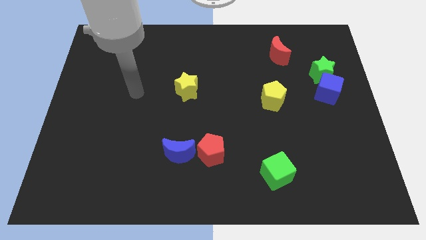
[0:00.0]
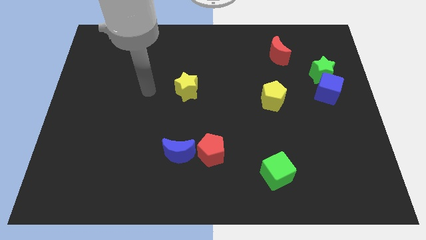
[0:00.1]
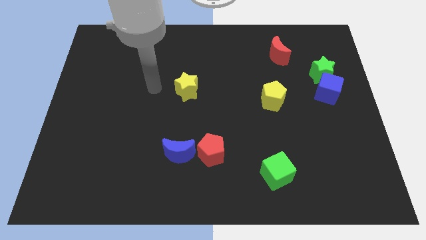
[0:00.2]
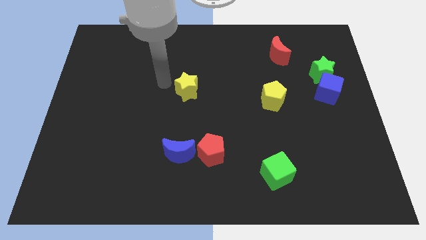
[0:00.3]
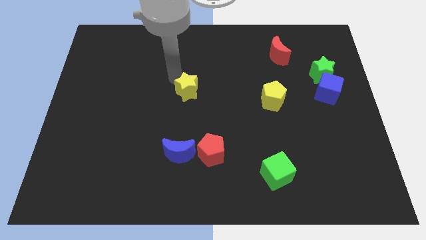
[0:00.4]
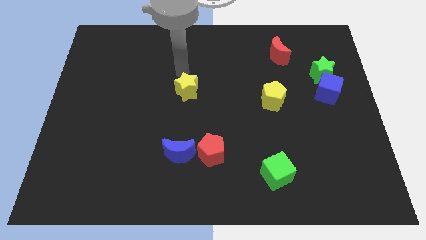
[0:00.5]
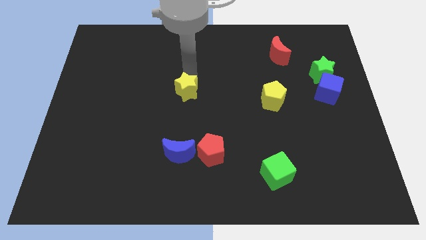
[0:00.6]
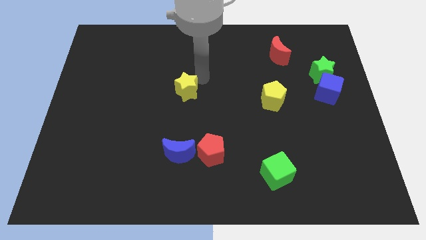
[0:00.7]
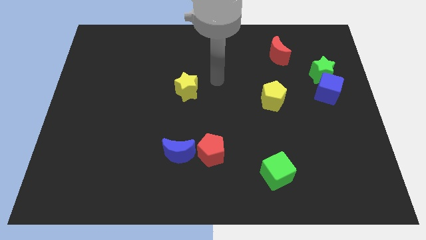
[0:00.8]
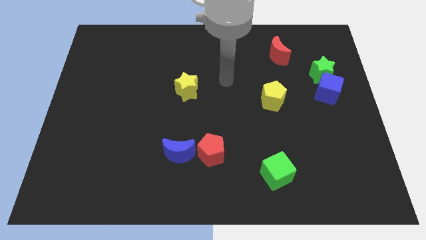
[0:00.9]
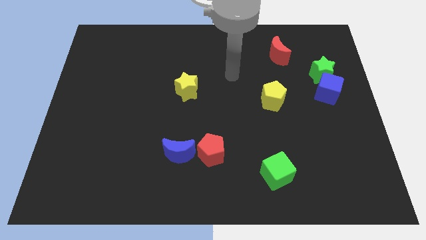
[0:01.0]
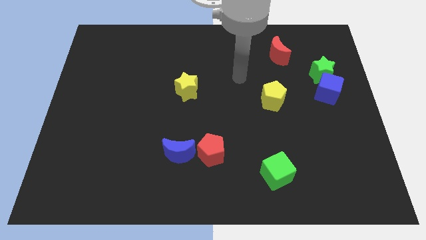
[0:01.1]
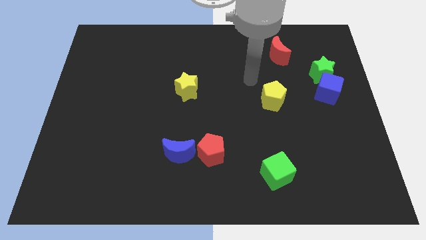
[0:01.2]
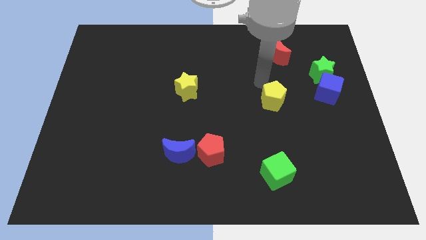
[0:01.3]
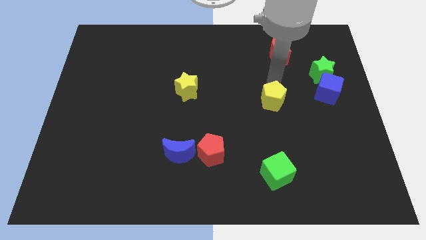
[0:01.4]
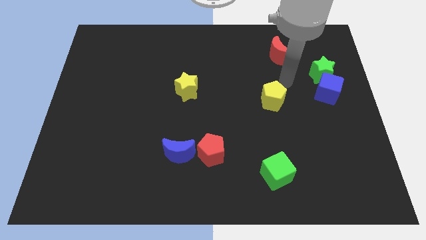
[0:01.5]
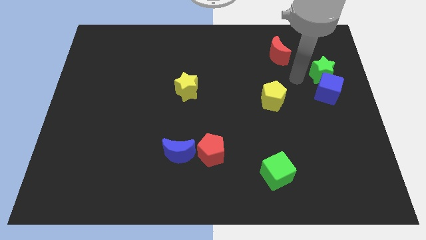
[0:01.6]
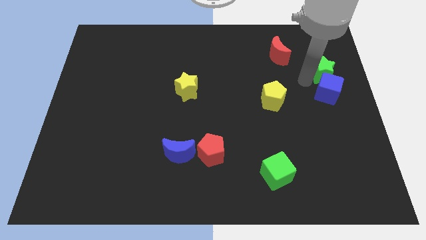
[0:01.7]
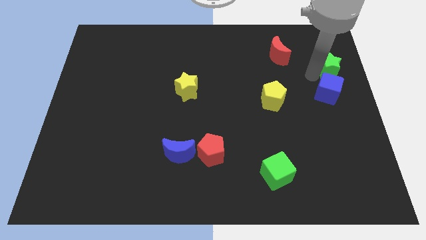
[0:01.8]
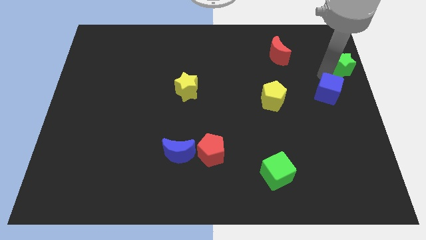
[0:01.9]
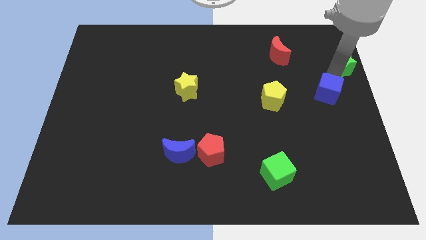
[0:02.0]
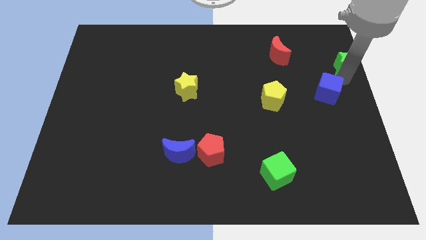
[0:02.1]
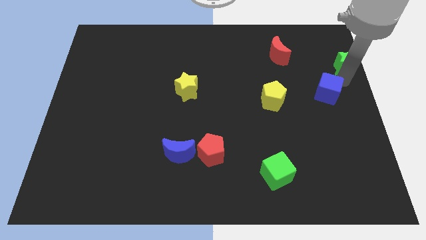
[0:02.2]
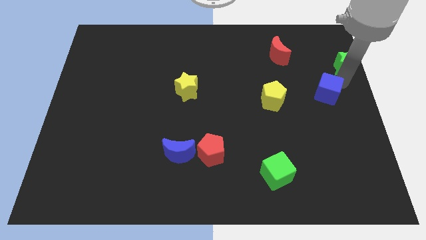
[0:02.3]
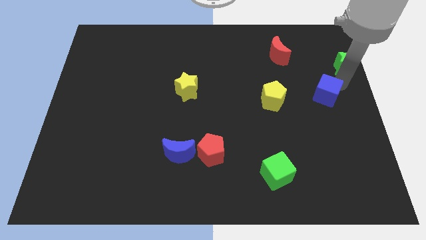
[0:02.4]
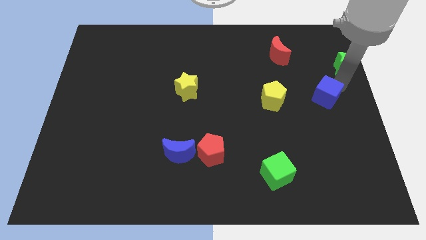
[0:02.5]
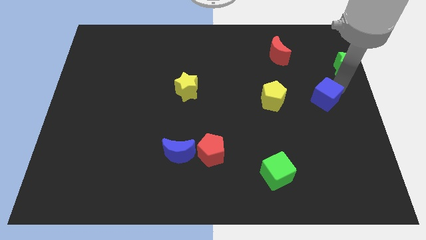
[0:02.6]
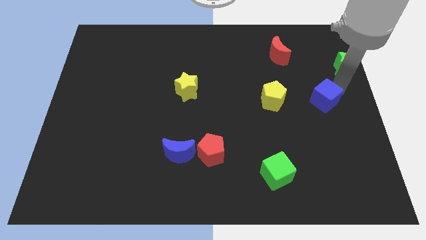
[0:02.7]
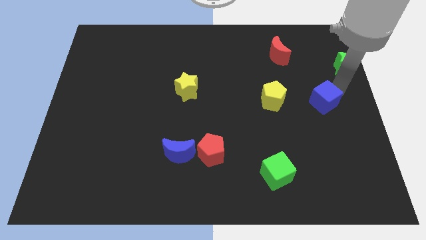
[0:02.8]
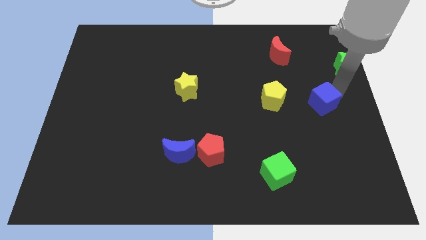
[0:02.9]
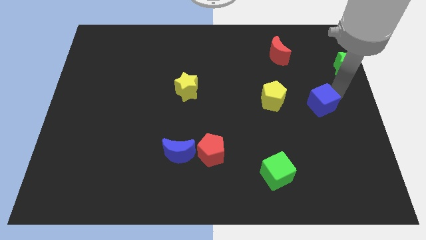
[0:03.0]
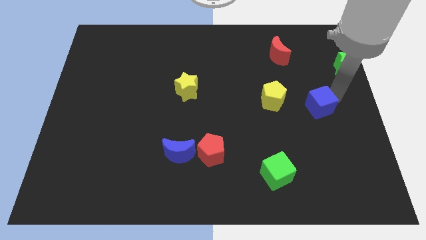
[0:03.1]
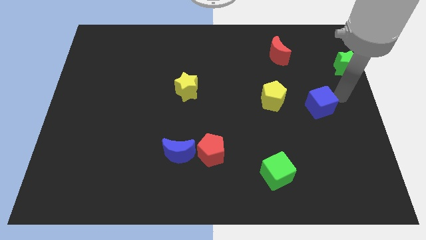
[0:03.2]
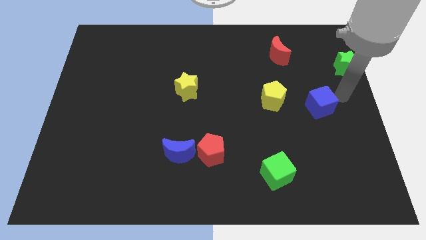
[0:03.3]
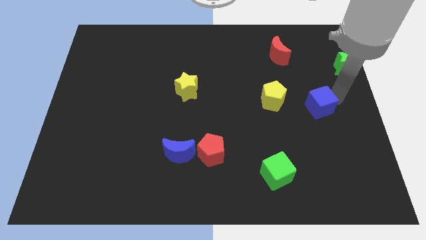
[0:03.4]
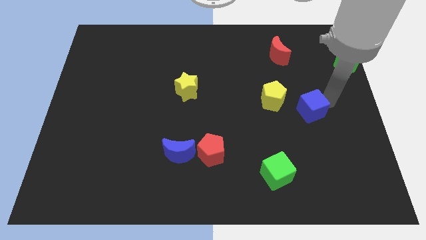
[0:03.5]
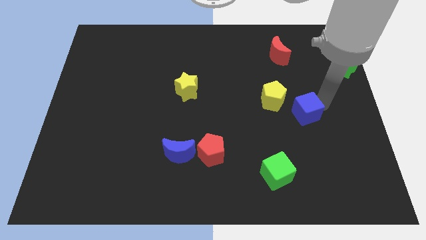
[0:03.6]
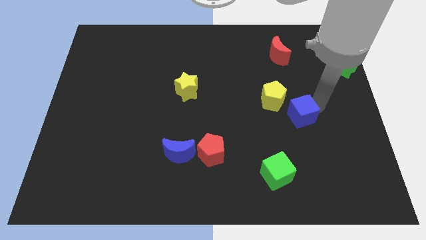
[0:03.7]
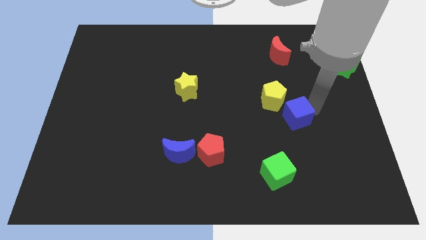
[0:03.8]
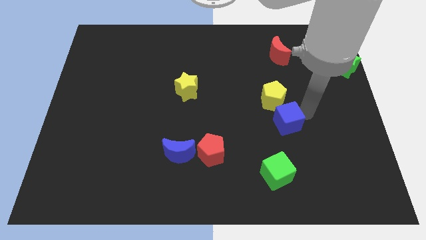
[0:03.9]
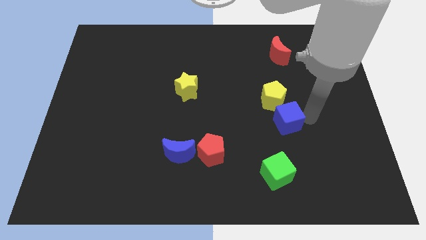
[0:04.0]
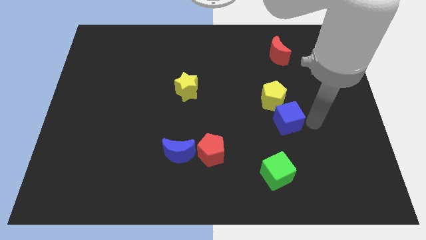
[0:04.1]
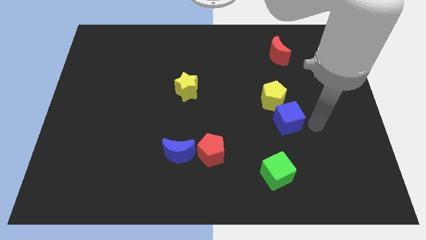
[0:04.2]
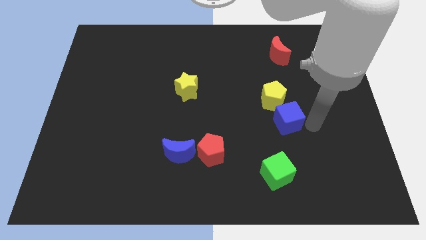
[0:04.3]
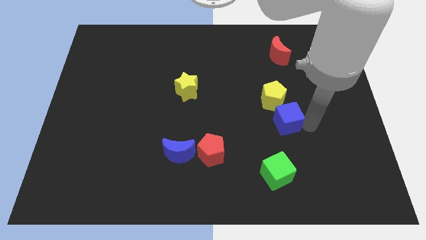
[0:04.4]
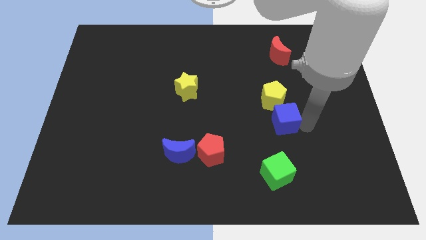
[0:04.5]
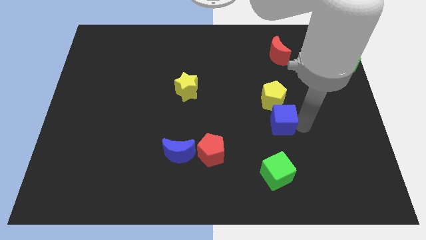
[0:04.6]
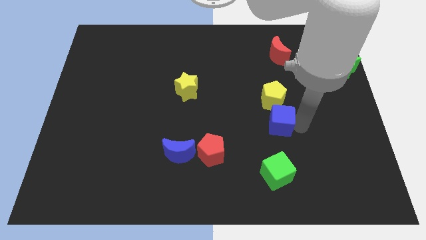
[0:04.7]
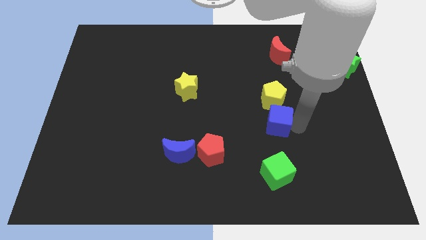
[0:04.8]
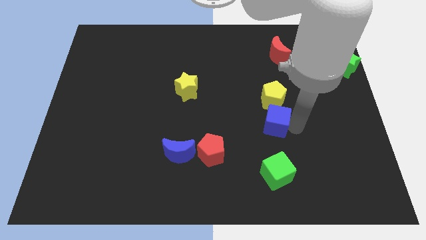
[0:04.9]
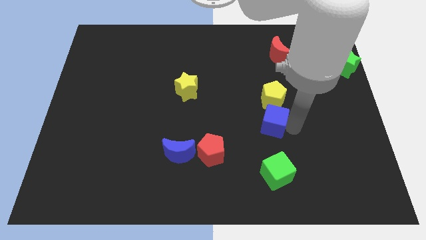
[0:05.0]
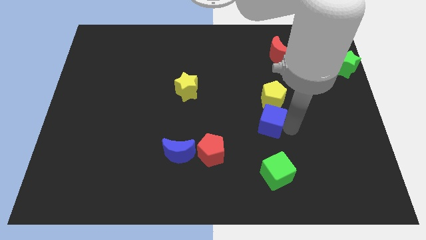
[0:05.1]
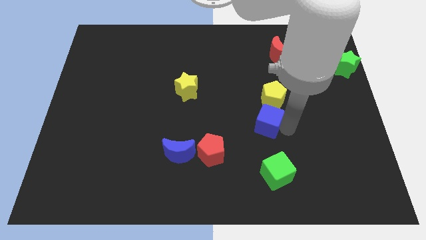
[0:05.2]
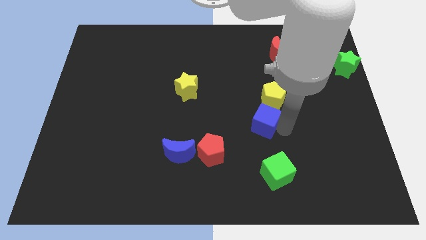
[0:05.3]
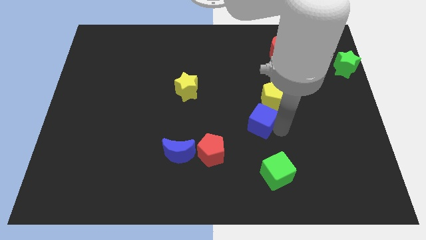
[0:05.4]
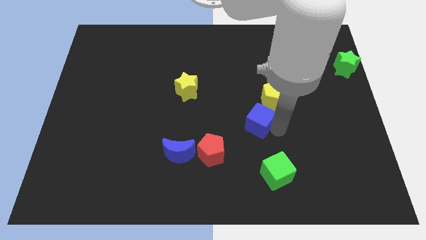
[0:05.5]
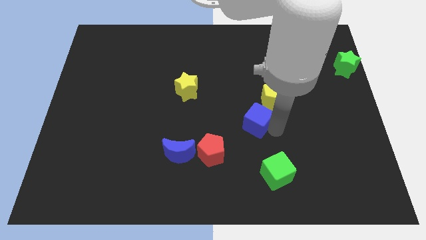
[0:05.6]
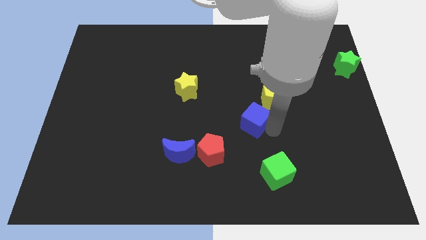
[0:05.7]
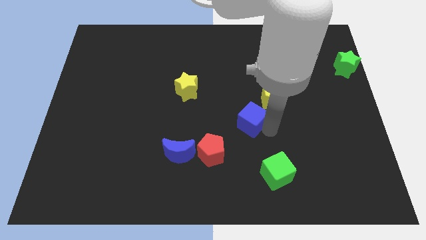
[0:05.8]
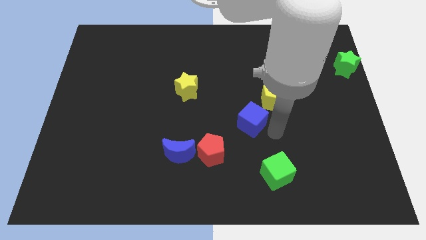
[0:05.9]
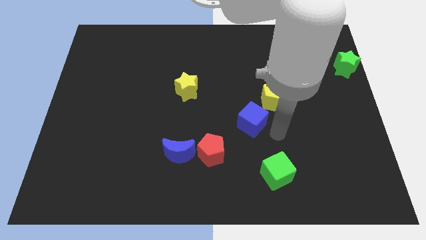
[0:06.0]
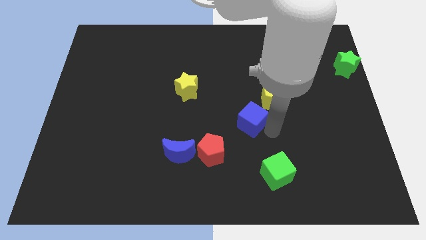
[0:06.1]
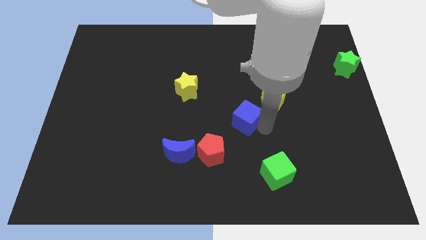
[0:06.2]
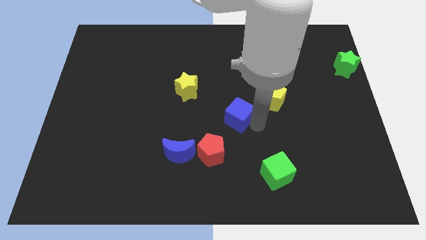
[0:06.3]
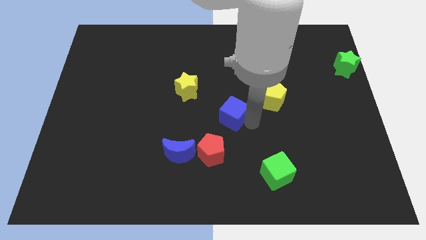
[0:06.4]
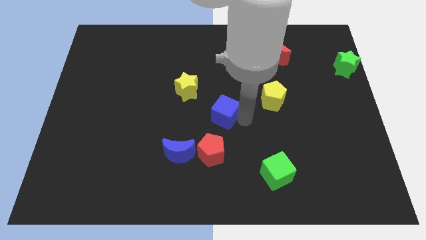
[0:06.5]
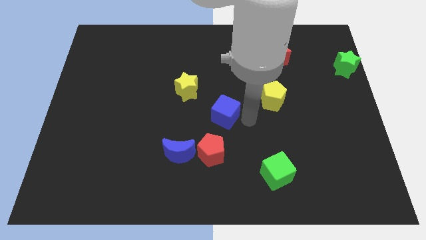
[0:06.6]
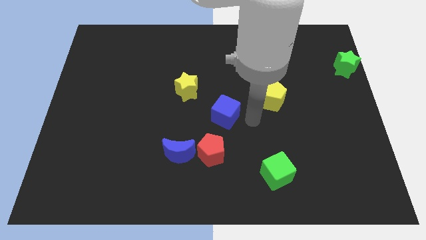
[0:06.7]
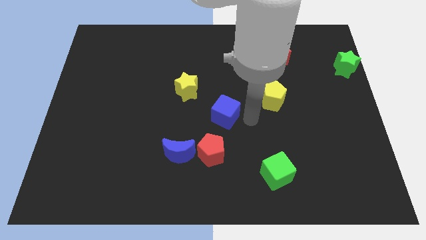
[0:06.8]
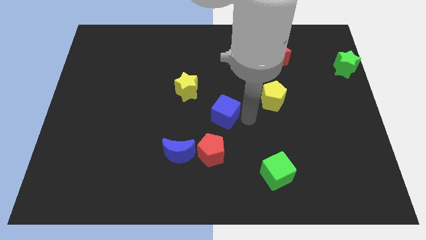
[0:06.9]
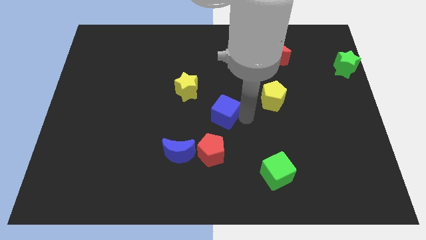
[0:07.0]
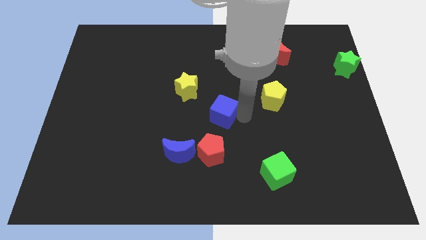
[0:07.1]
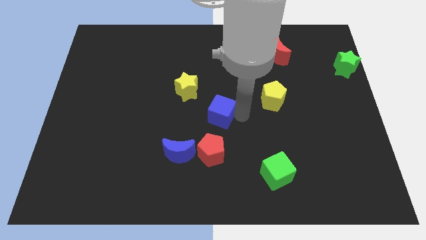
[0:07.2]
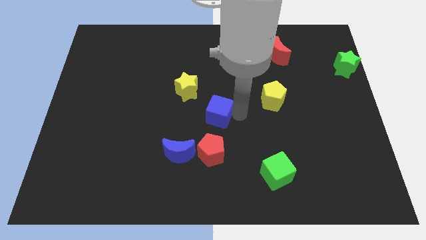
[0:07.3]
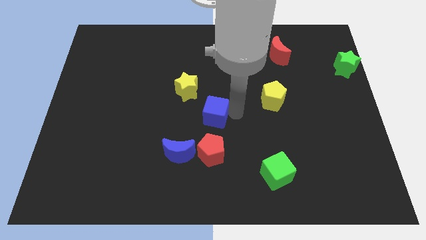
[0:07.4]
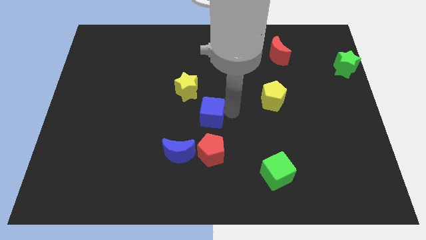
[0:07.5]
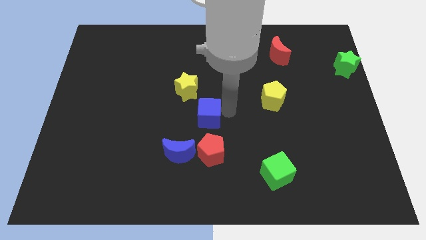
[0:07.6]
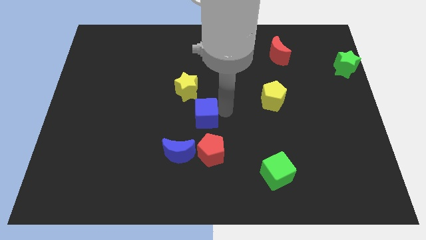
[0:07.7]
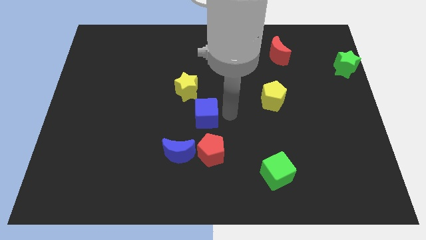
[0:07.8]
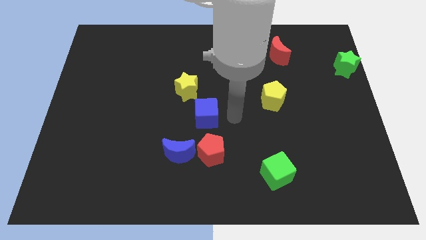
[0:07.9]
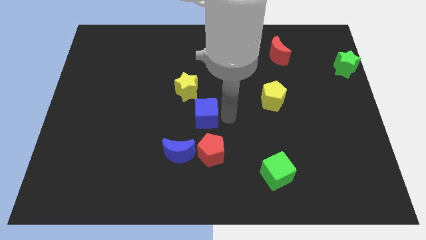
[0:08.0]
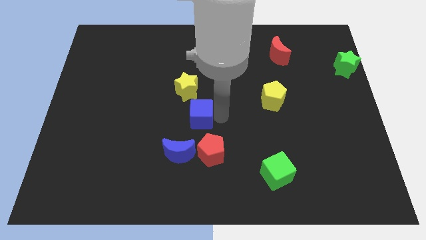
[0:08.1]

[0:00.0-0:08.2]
move the blue cube above the blue moon
